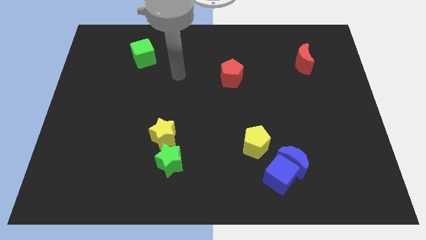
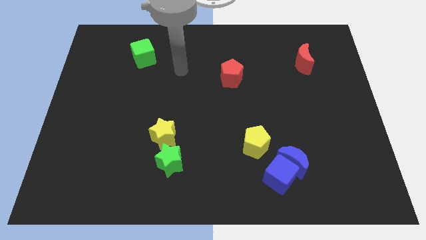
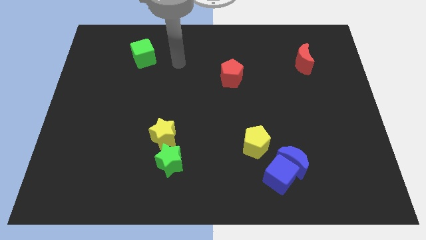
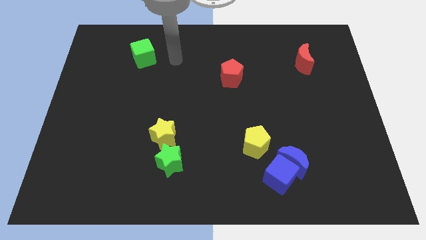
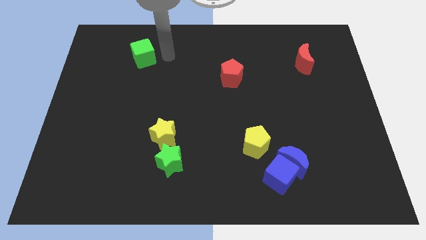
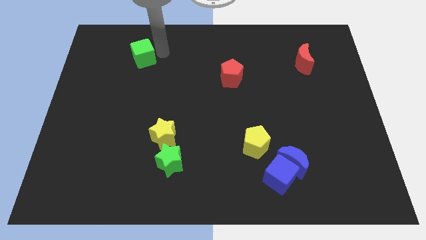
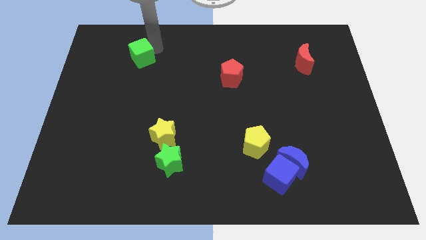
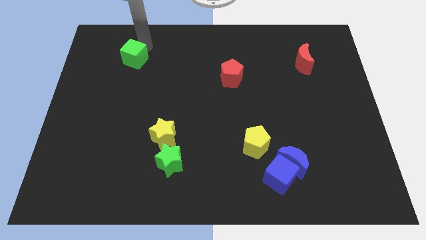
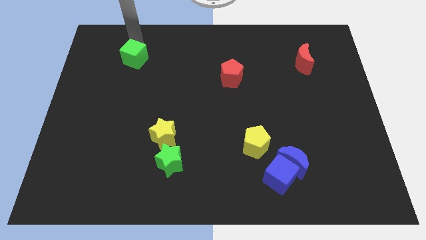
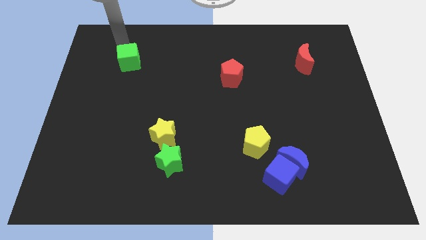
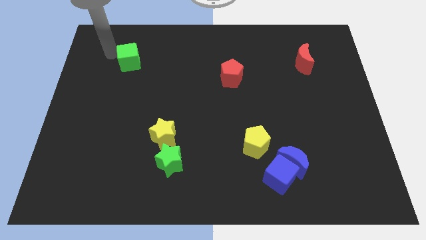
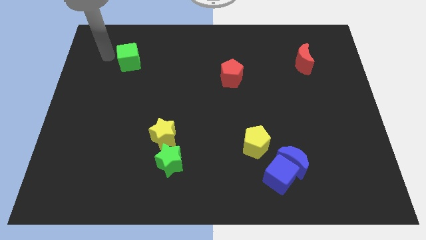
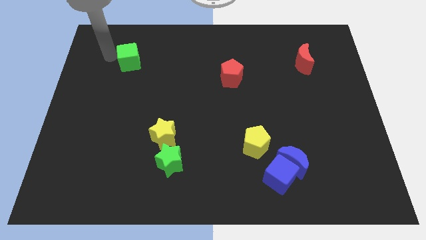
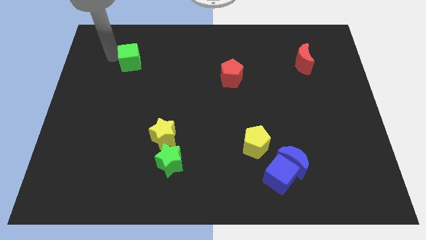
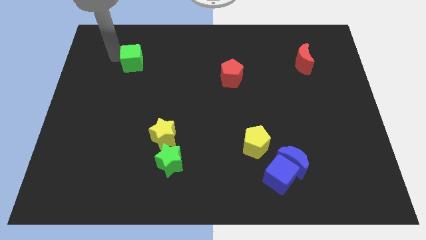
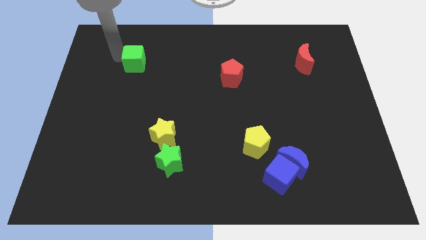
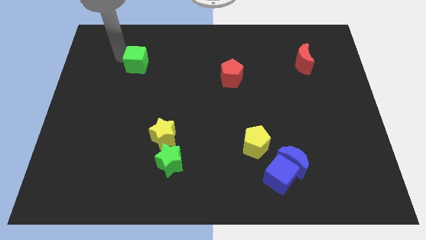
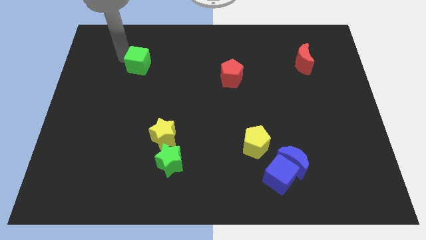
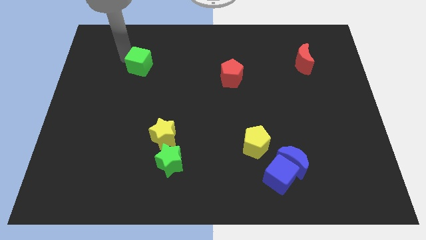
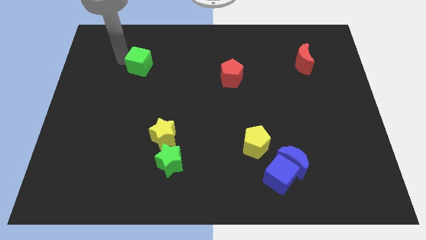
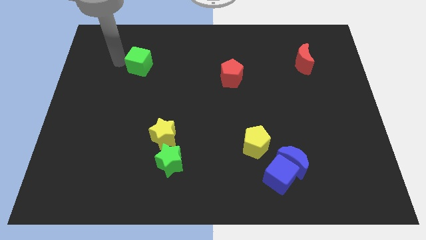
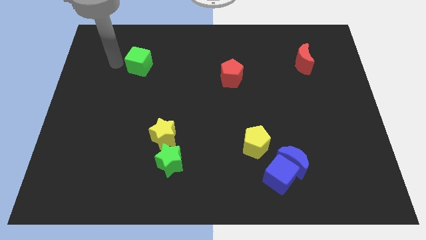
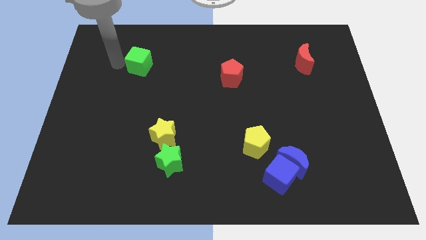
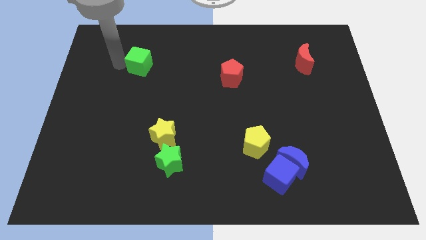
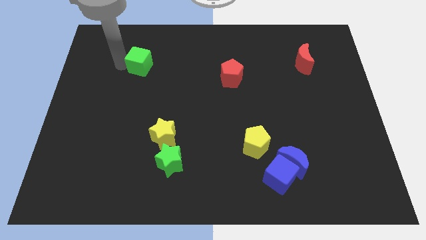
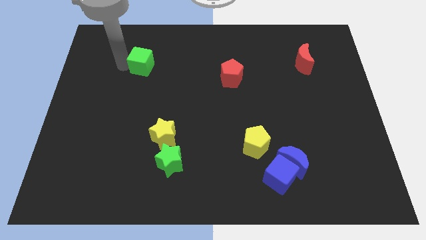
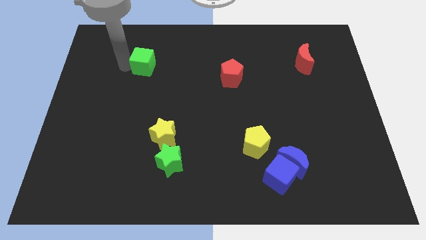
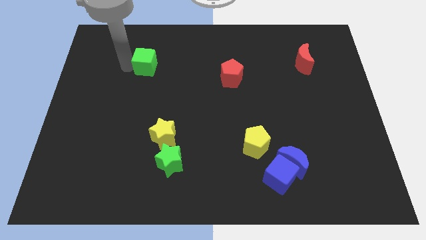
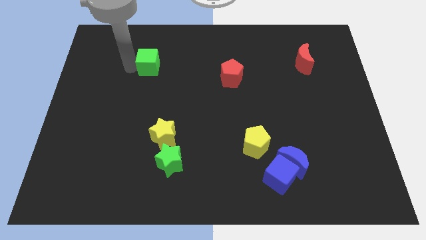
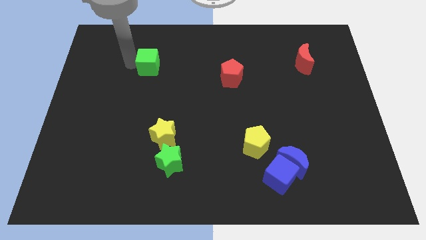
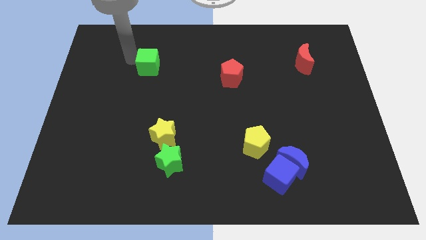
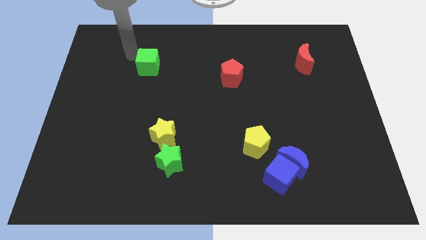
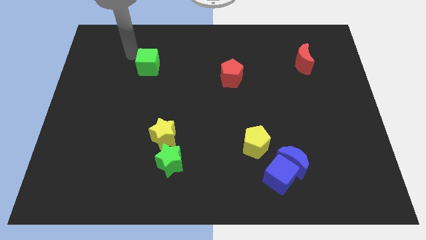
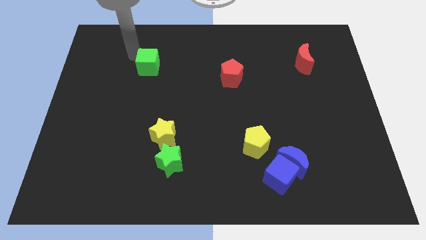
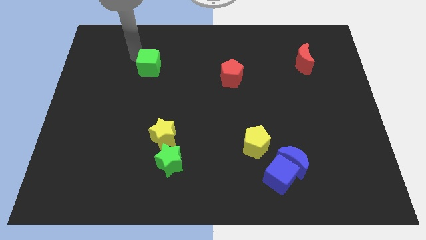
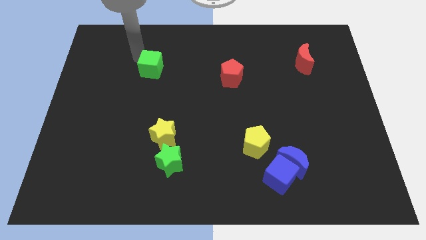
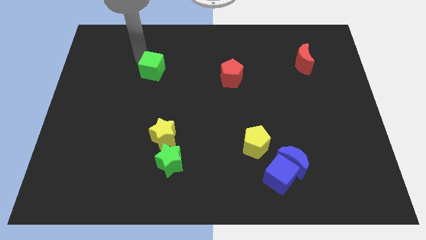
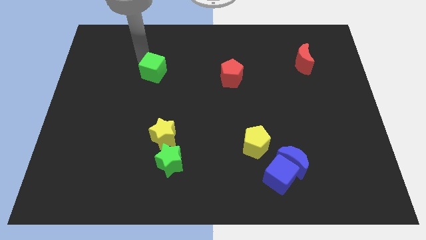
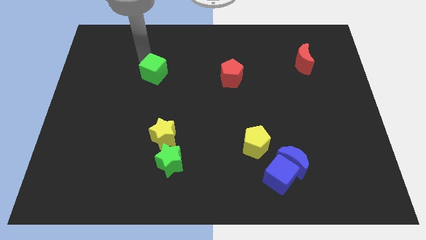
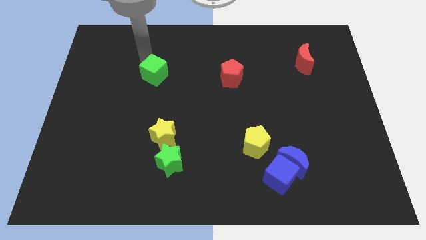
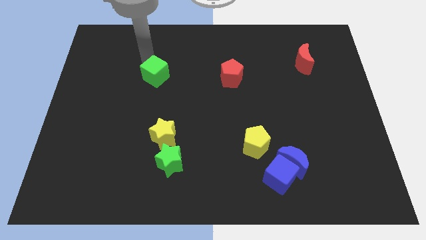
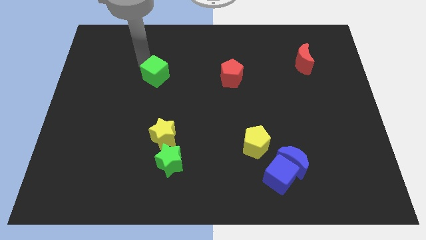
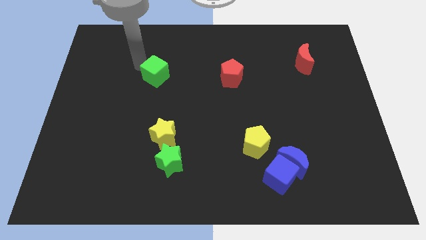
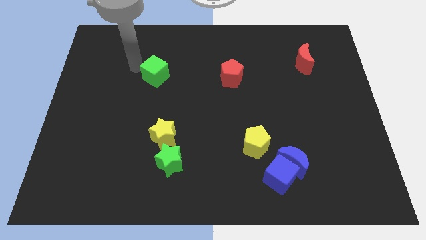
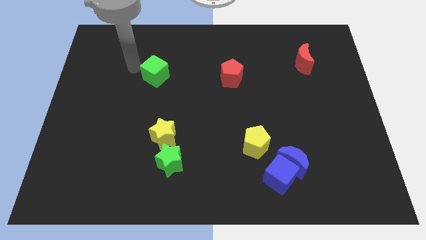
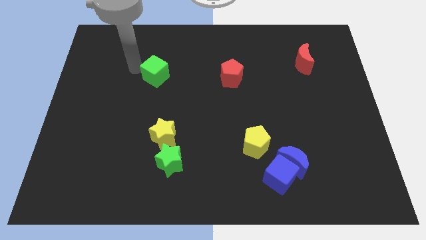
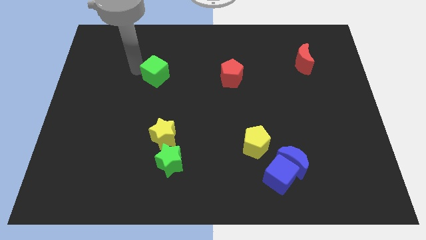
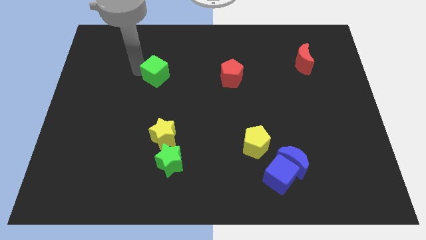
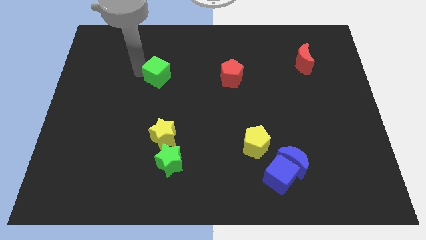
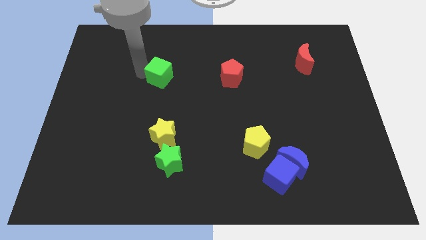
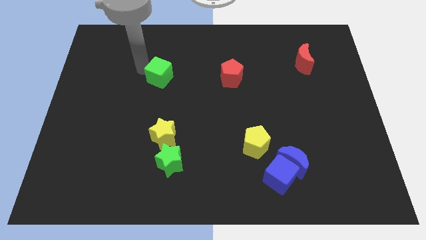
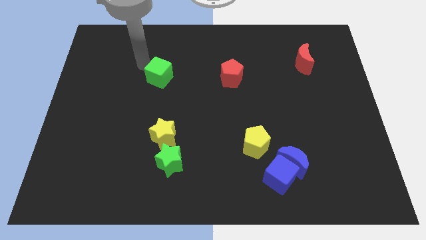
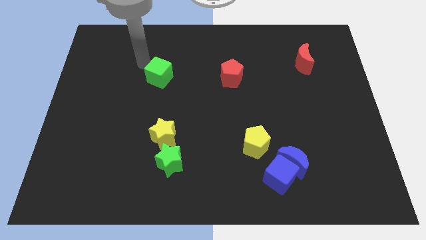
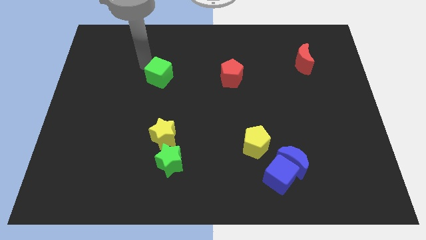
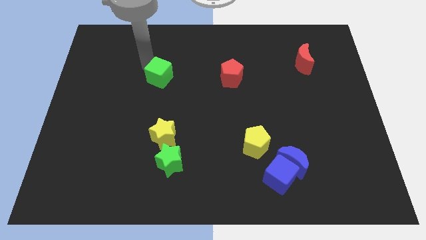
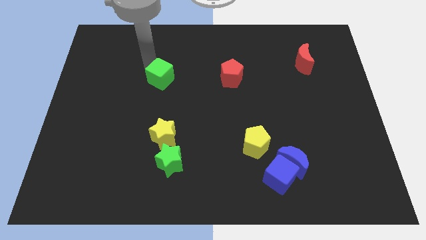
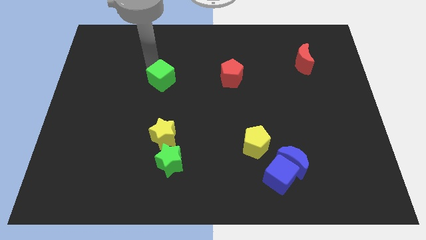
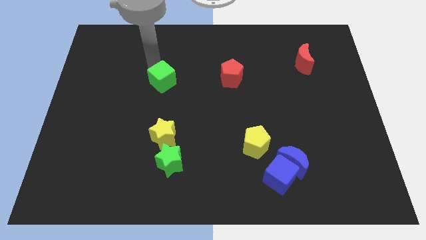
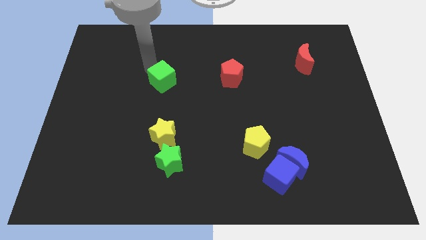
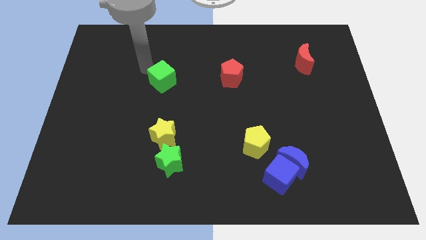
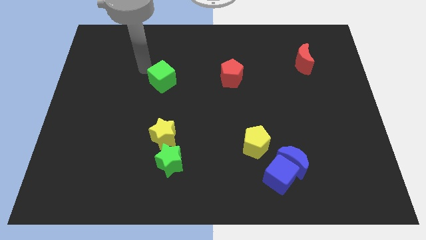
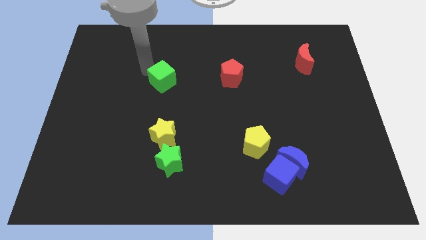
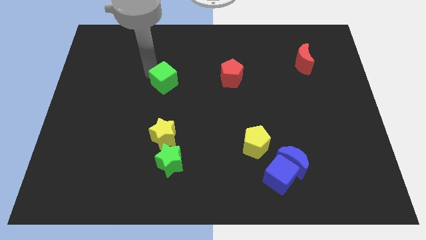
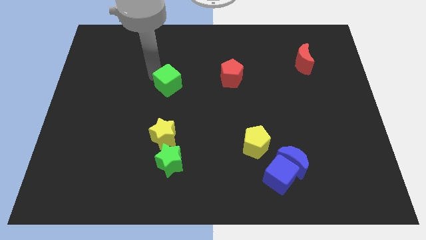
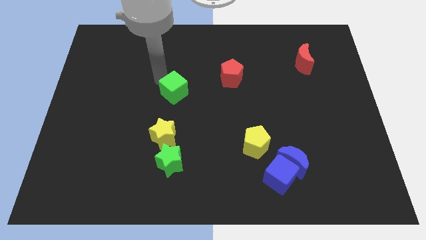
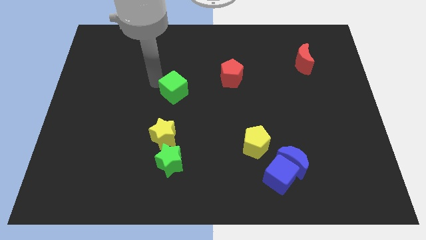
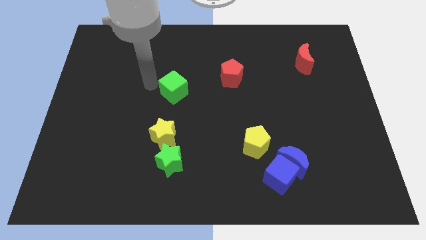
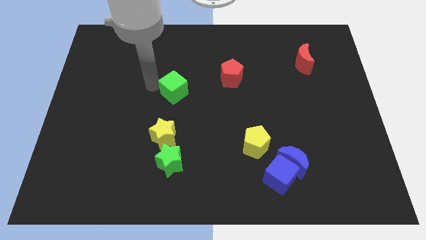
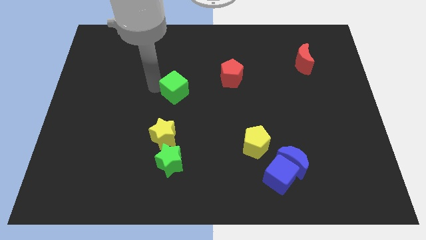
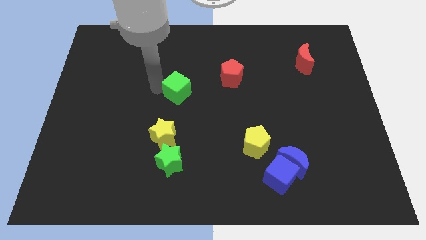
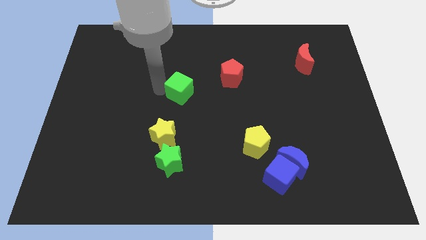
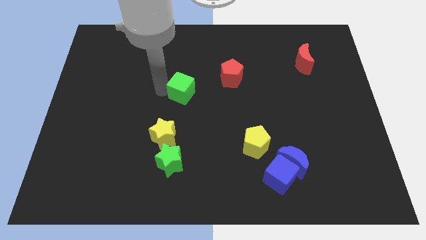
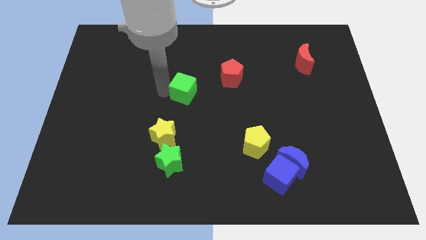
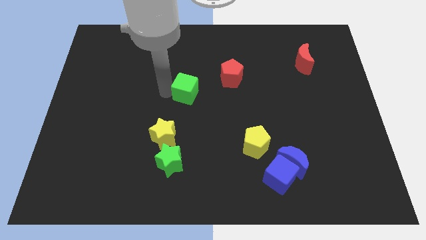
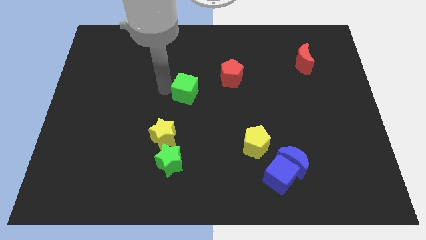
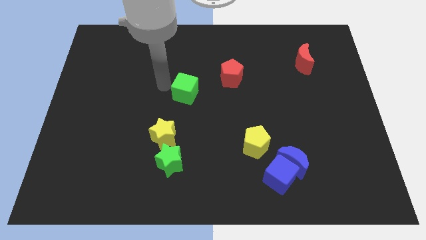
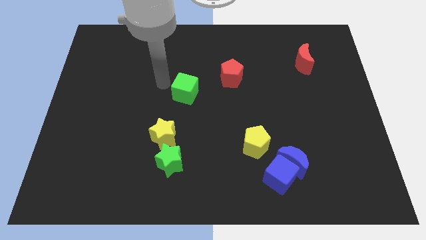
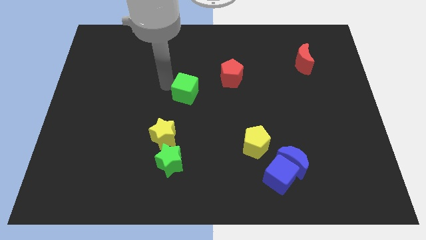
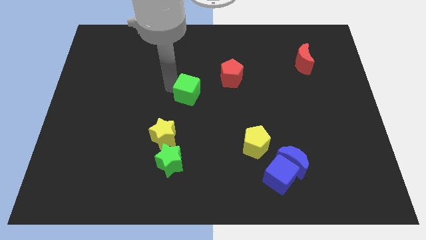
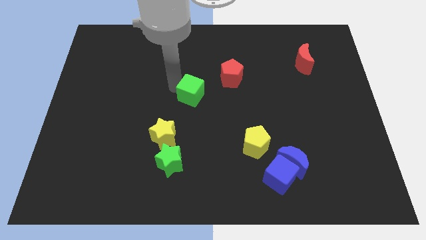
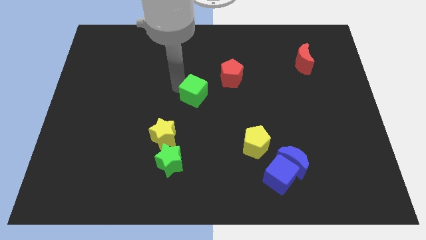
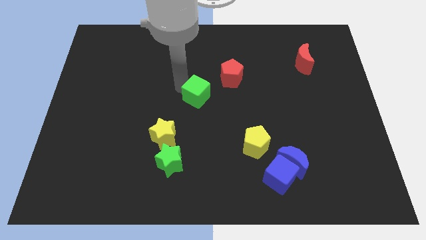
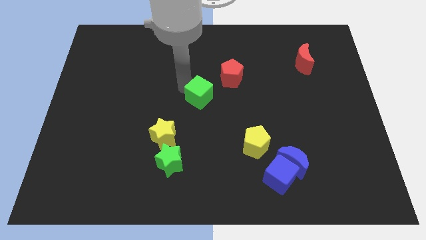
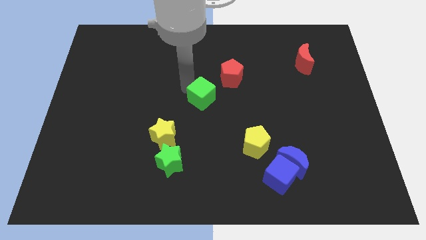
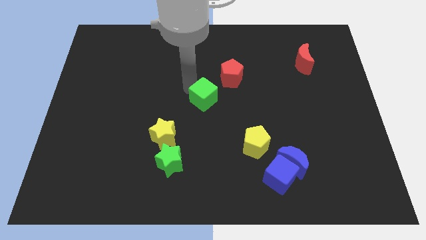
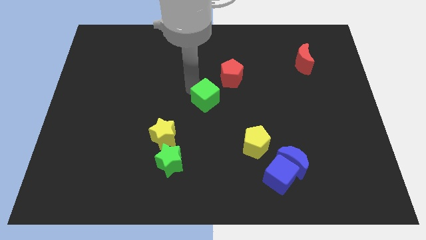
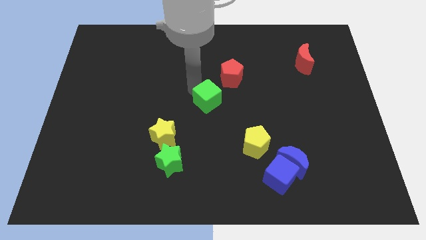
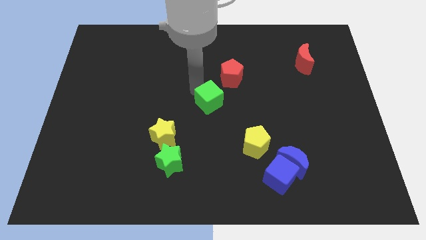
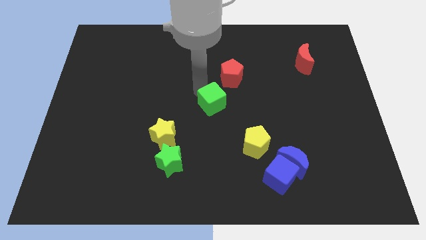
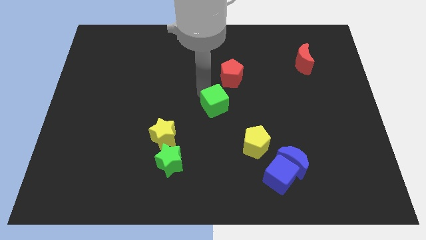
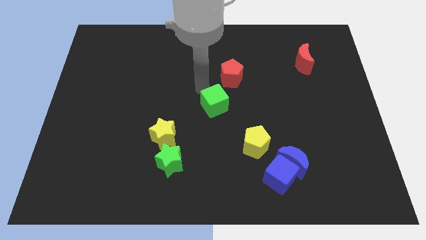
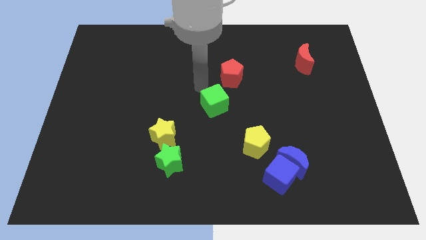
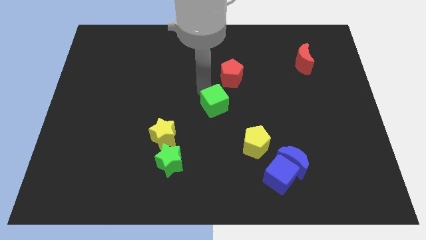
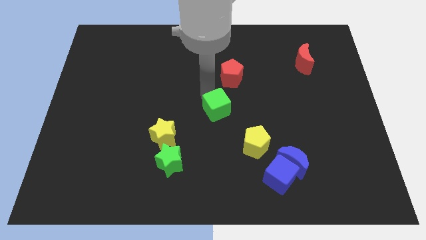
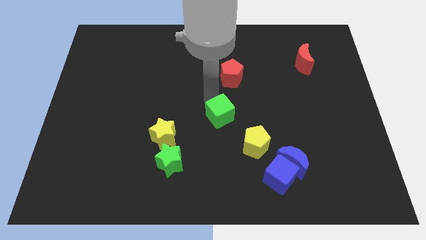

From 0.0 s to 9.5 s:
put the green cube diagonally up and to the left of the yellow pentagon
